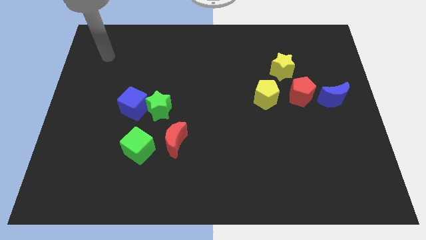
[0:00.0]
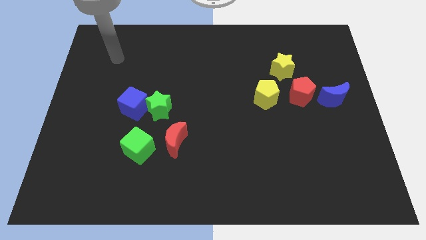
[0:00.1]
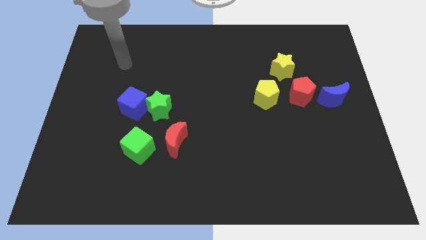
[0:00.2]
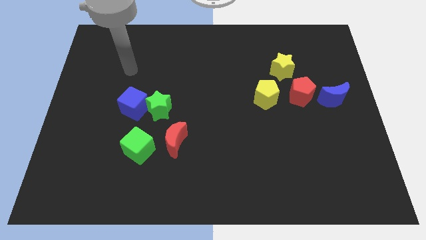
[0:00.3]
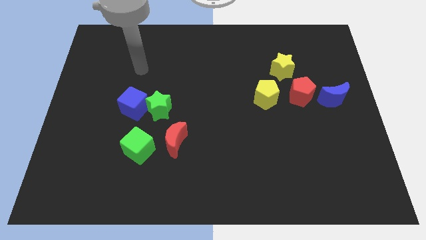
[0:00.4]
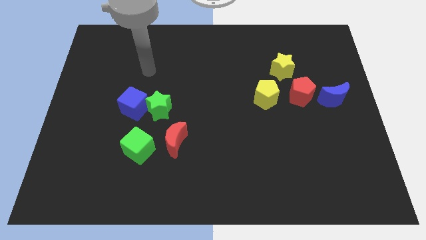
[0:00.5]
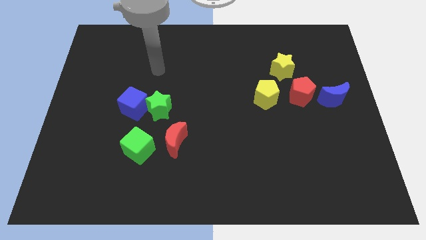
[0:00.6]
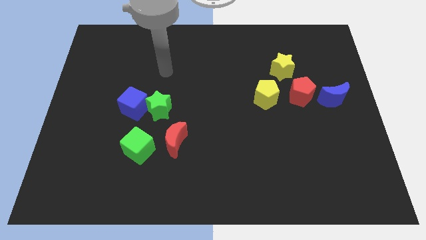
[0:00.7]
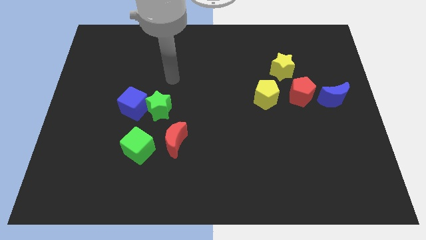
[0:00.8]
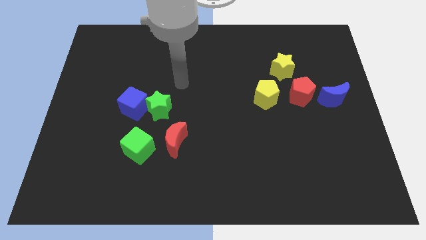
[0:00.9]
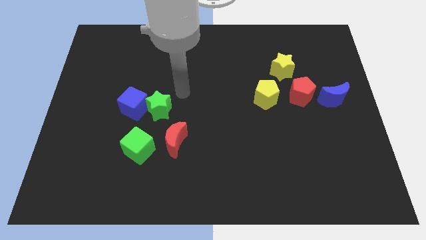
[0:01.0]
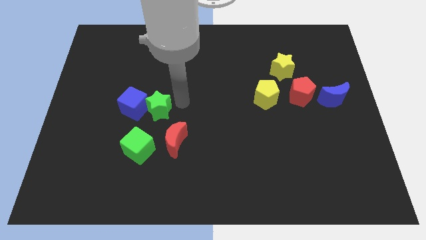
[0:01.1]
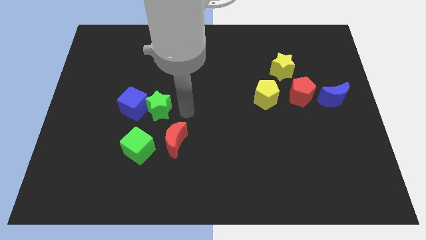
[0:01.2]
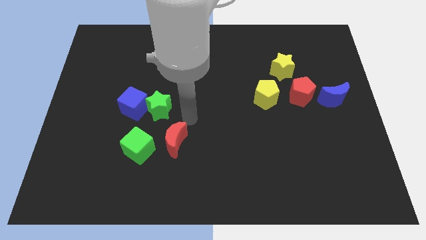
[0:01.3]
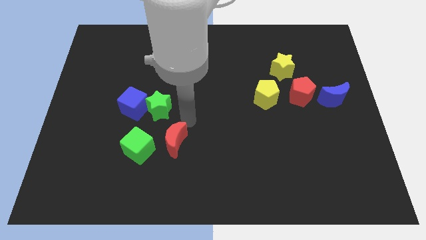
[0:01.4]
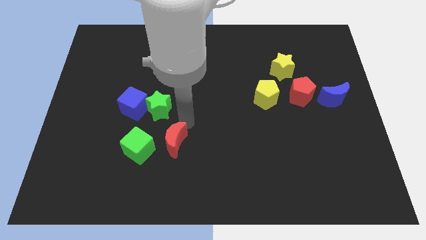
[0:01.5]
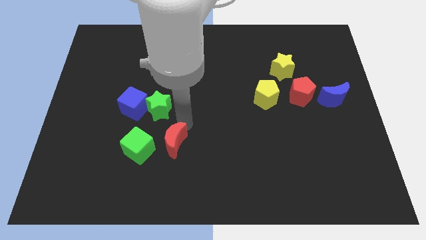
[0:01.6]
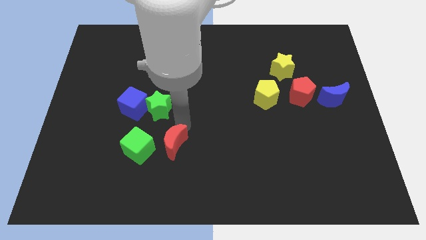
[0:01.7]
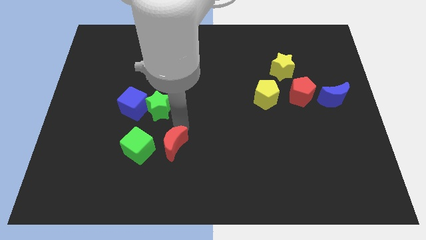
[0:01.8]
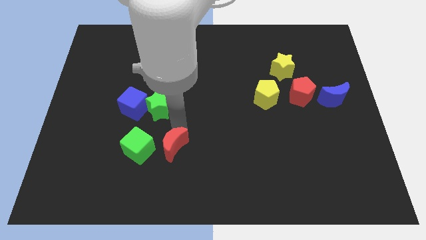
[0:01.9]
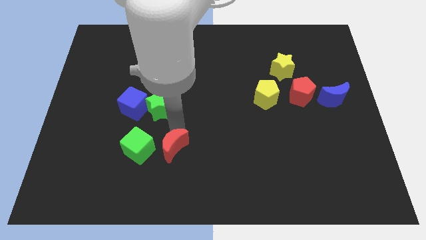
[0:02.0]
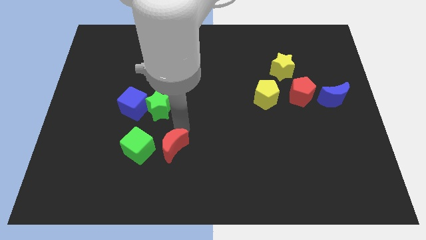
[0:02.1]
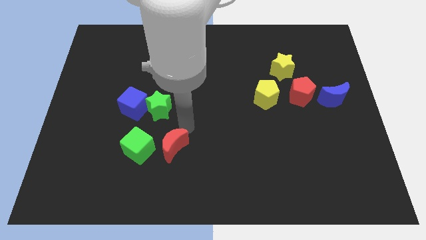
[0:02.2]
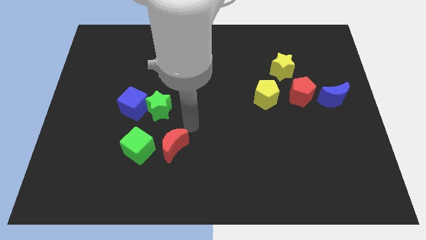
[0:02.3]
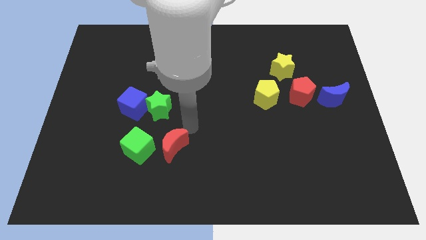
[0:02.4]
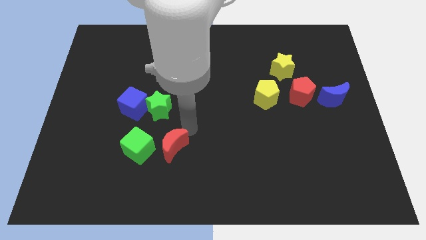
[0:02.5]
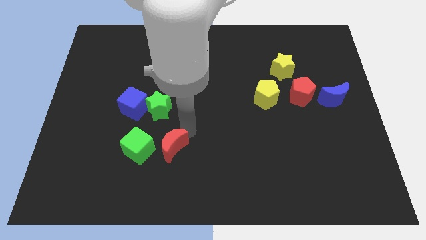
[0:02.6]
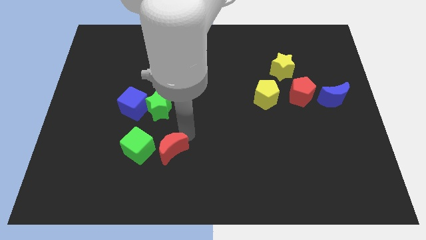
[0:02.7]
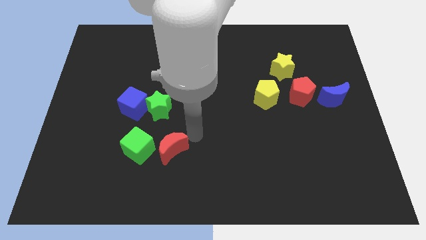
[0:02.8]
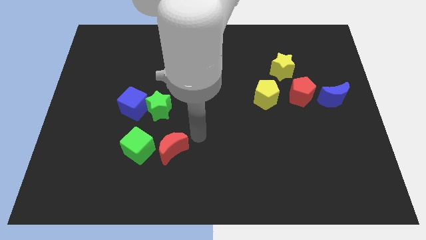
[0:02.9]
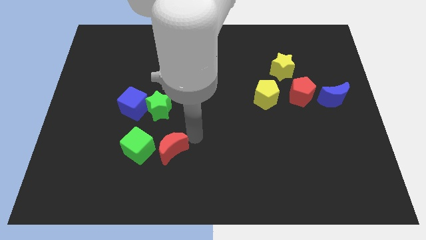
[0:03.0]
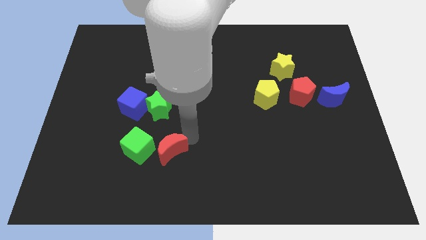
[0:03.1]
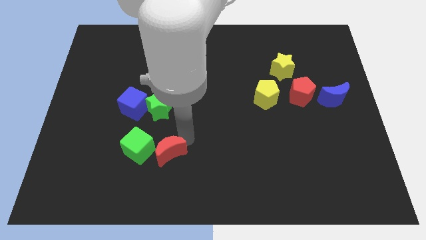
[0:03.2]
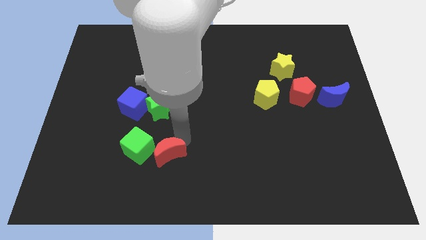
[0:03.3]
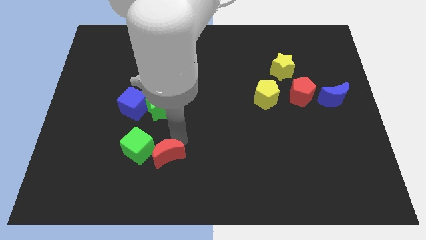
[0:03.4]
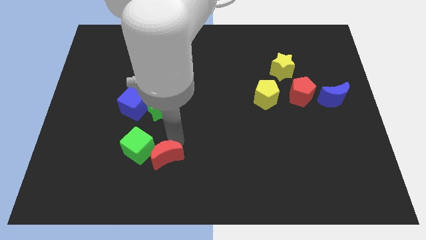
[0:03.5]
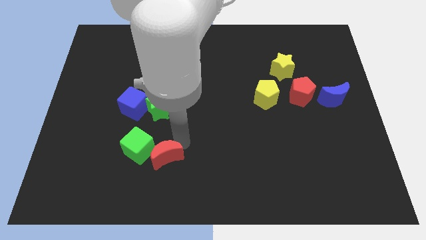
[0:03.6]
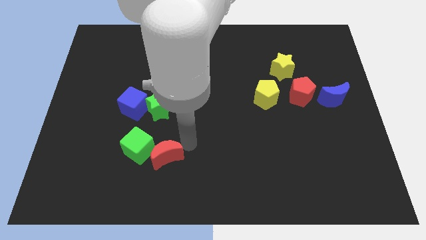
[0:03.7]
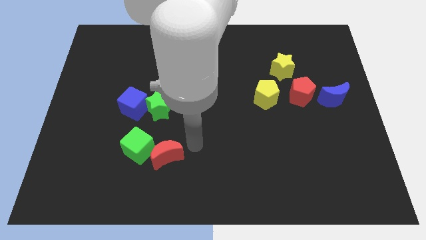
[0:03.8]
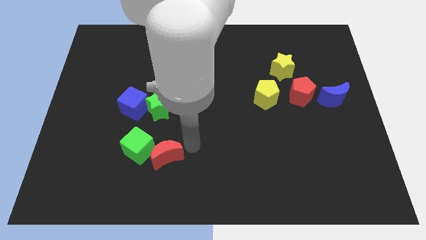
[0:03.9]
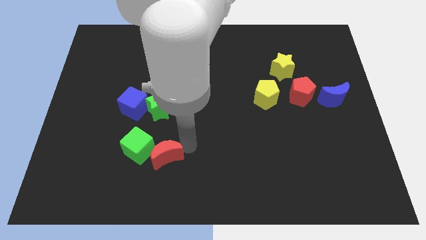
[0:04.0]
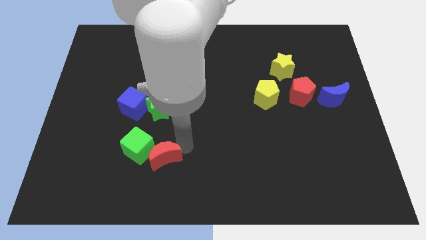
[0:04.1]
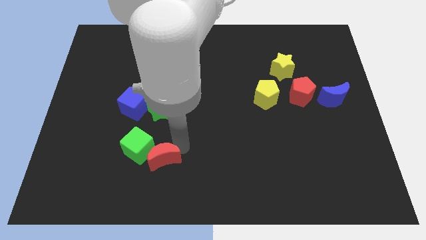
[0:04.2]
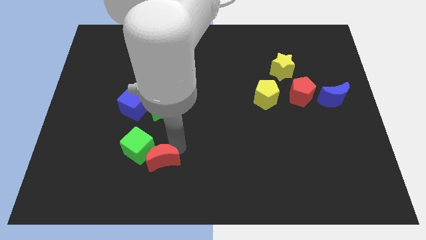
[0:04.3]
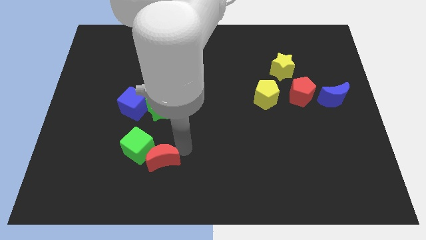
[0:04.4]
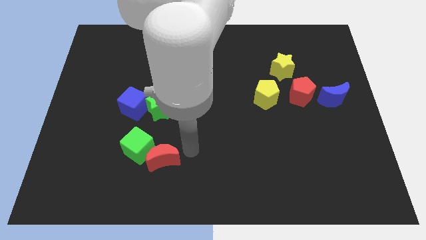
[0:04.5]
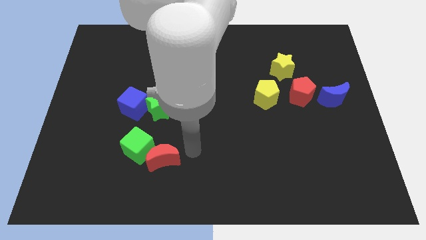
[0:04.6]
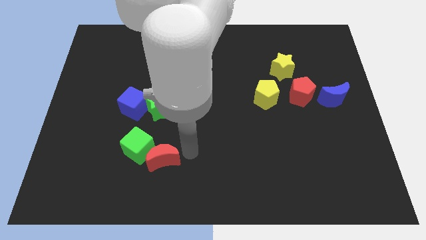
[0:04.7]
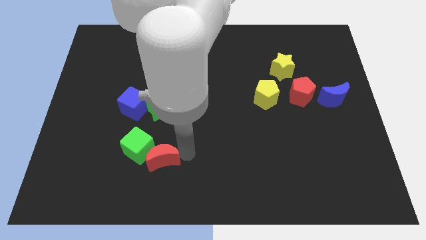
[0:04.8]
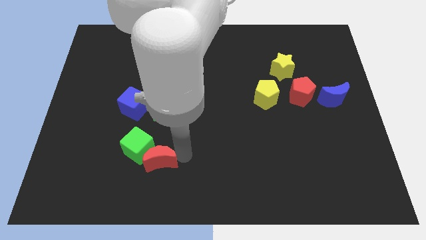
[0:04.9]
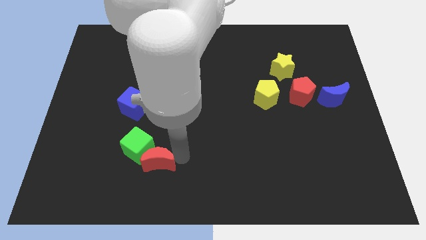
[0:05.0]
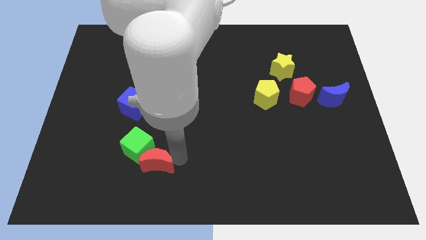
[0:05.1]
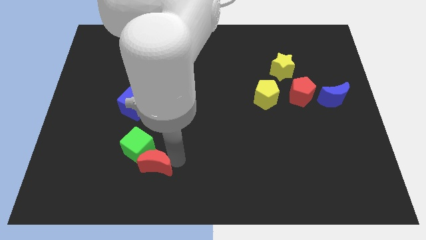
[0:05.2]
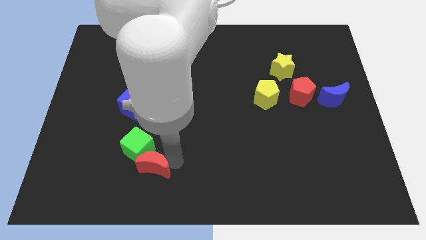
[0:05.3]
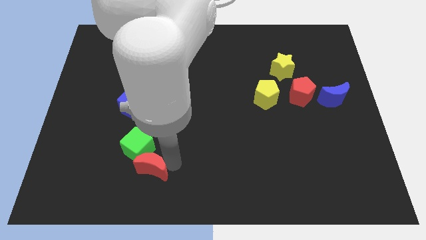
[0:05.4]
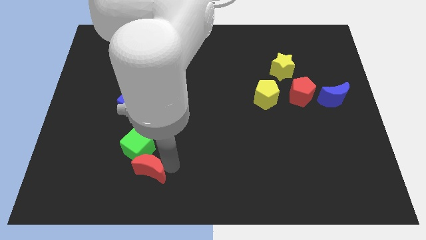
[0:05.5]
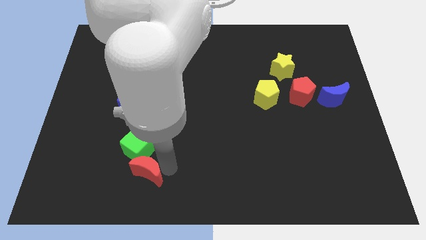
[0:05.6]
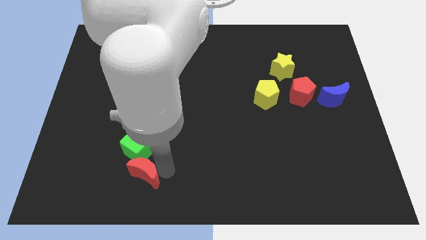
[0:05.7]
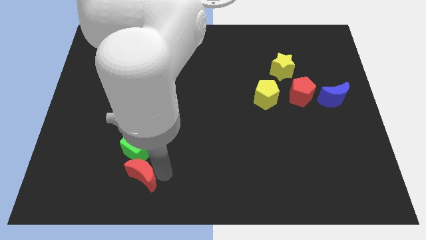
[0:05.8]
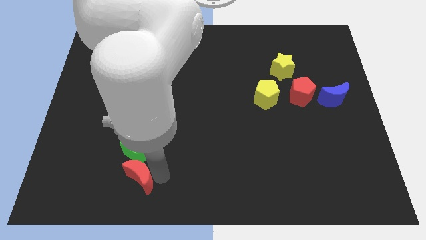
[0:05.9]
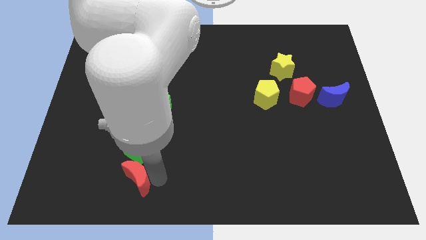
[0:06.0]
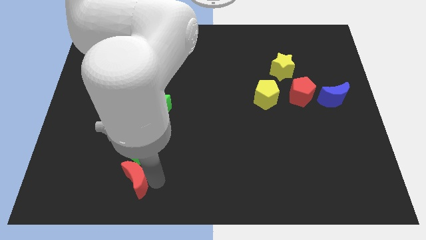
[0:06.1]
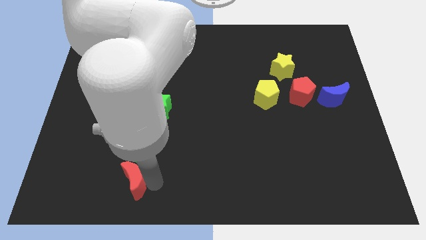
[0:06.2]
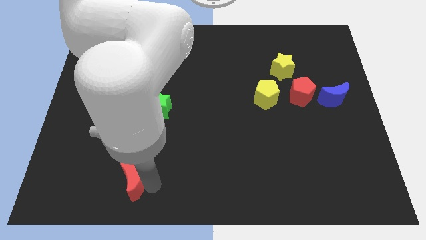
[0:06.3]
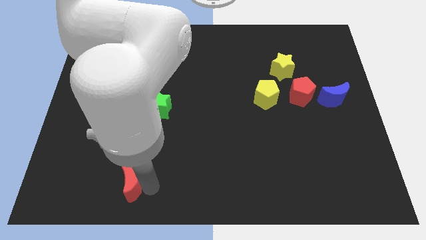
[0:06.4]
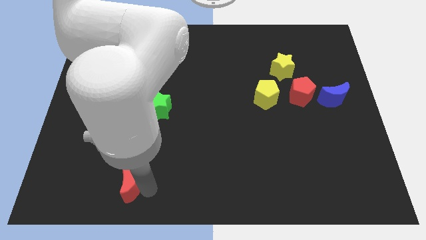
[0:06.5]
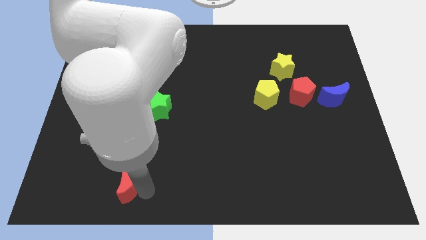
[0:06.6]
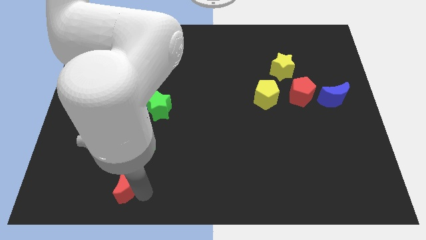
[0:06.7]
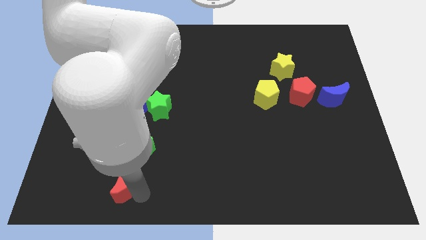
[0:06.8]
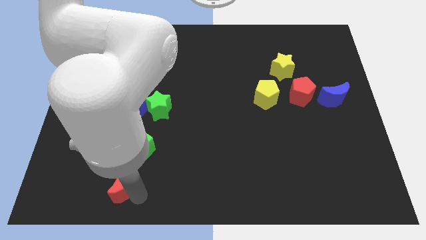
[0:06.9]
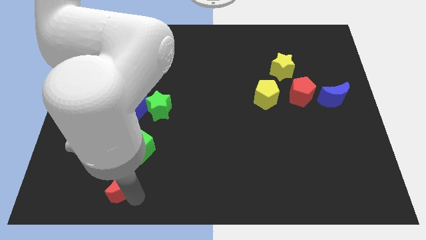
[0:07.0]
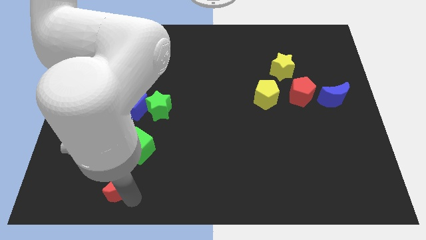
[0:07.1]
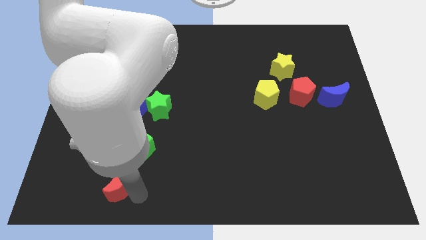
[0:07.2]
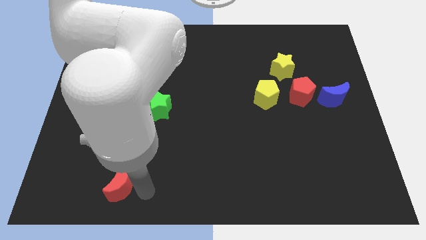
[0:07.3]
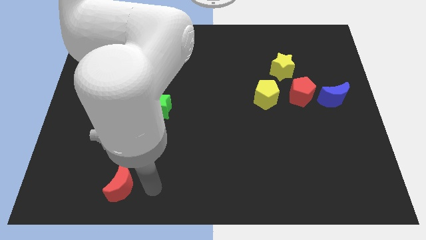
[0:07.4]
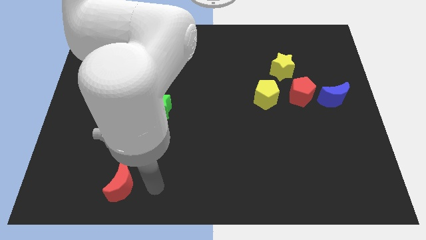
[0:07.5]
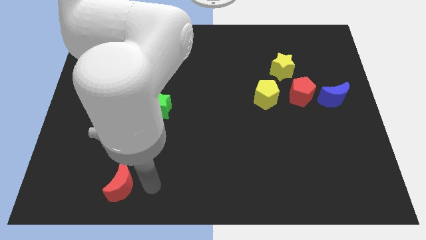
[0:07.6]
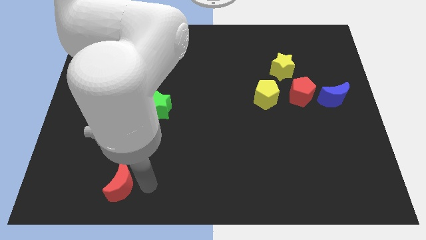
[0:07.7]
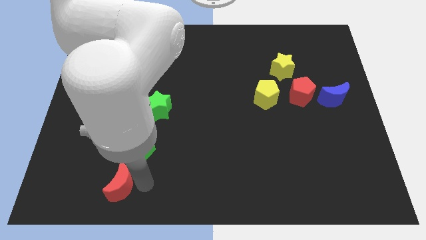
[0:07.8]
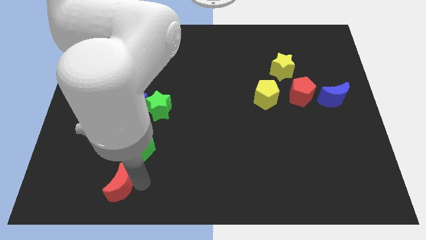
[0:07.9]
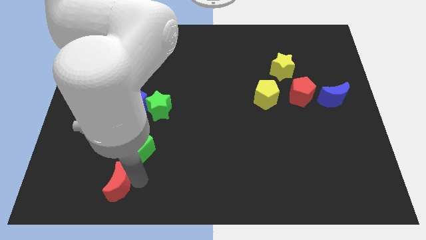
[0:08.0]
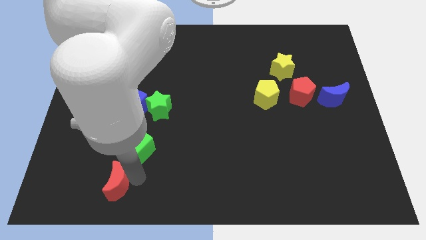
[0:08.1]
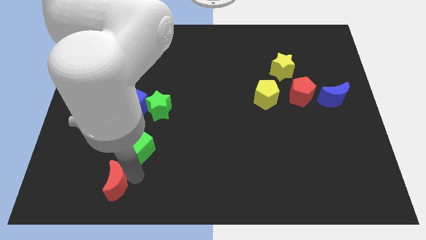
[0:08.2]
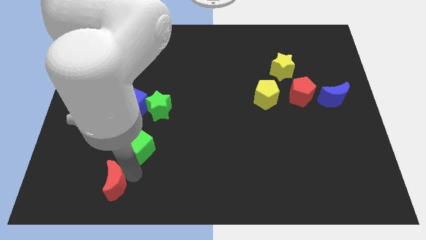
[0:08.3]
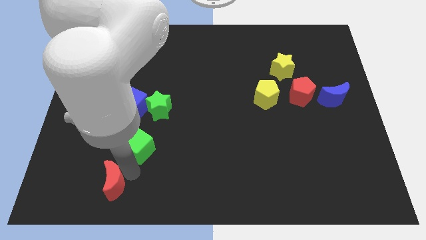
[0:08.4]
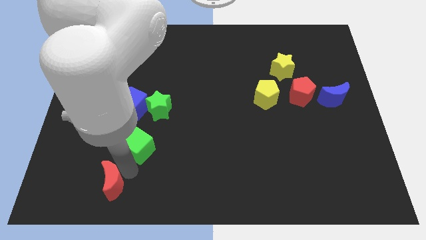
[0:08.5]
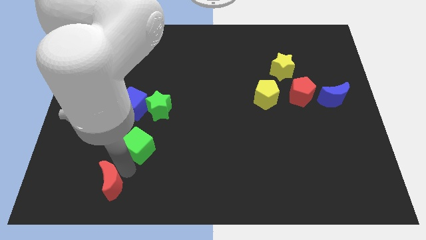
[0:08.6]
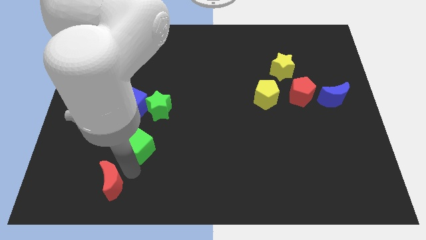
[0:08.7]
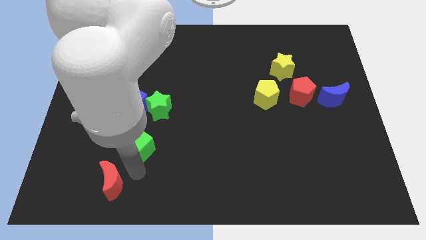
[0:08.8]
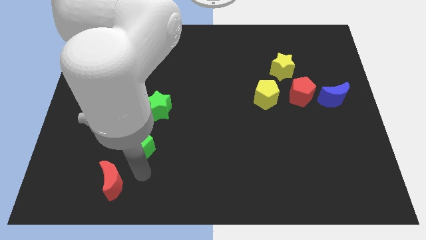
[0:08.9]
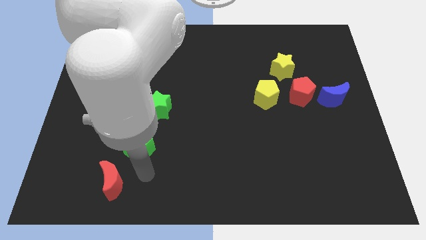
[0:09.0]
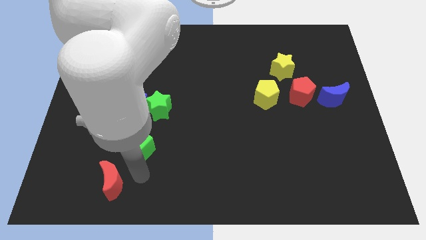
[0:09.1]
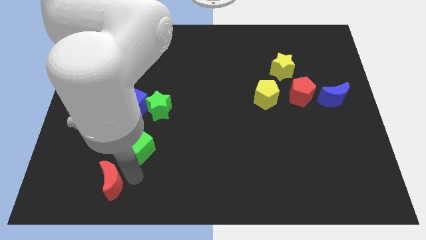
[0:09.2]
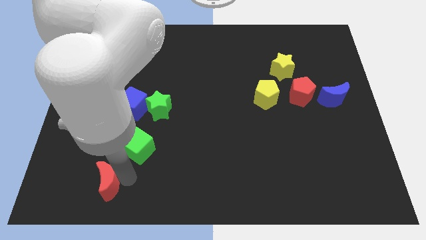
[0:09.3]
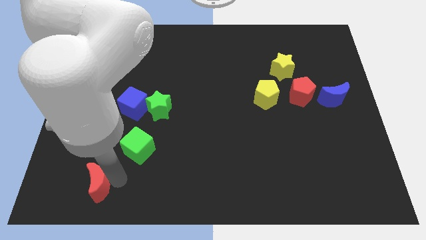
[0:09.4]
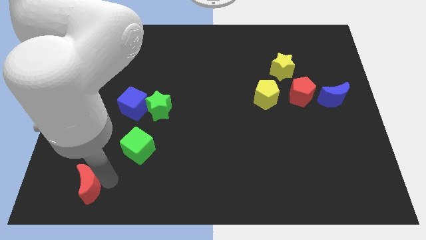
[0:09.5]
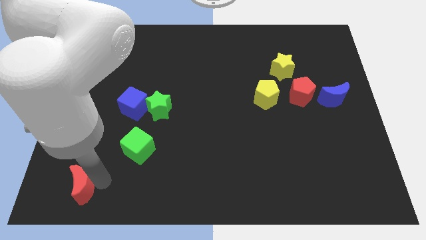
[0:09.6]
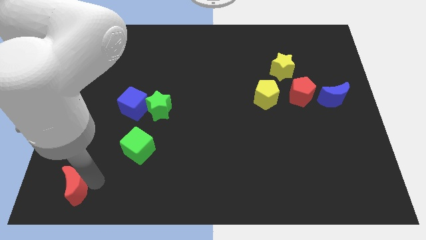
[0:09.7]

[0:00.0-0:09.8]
push the red moon to the bottom left corner
